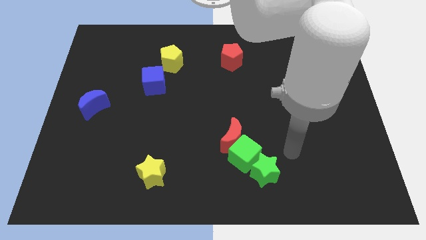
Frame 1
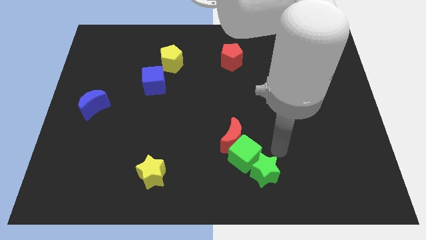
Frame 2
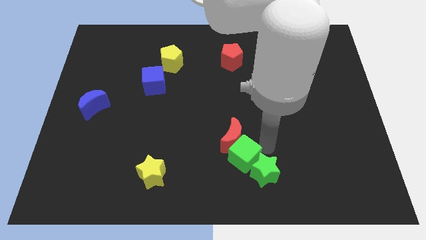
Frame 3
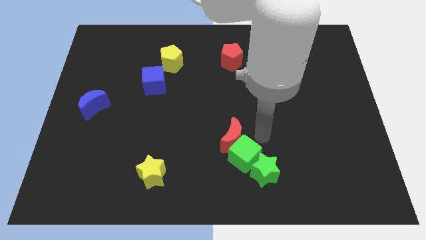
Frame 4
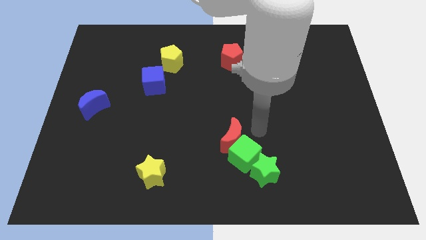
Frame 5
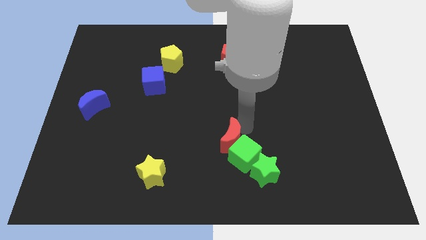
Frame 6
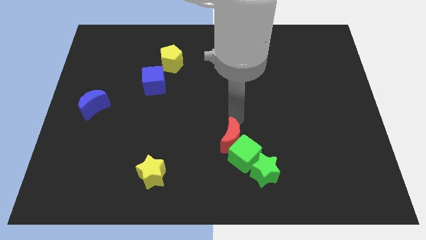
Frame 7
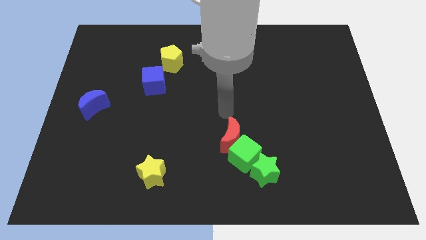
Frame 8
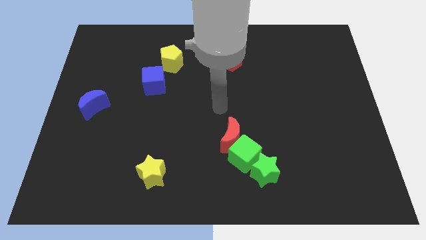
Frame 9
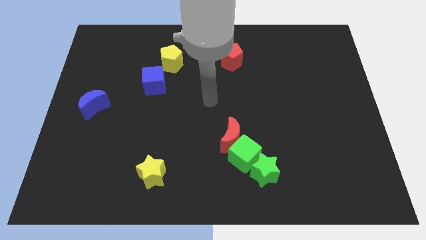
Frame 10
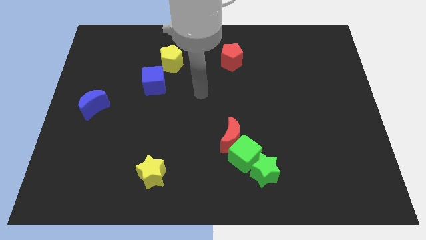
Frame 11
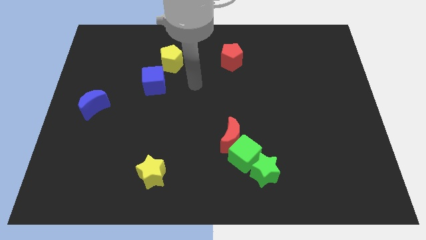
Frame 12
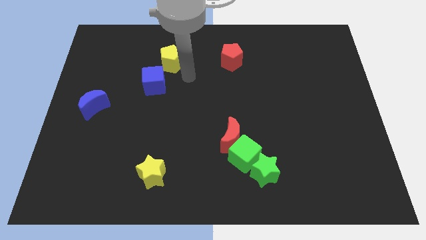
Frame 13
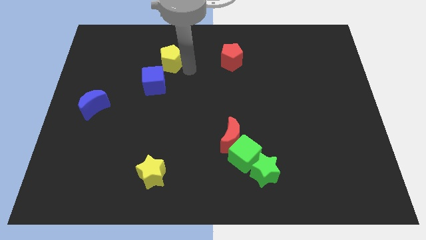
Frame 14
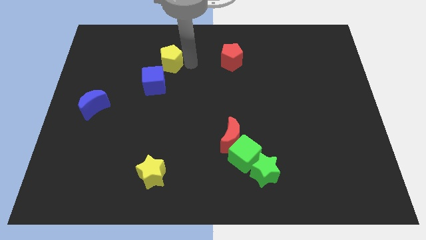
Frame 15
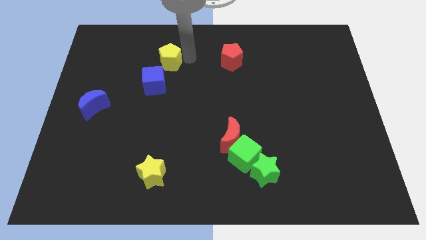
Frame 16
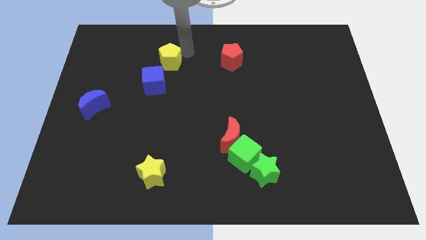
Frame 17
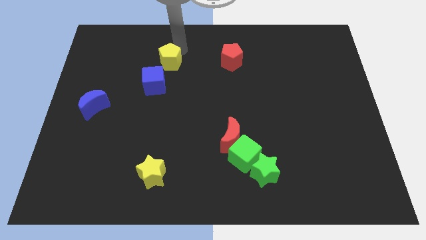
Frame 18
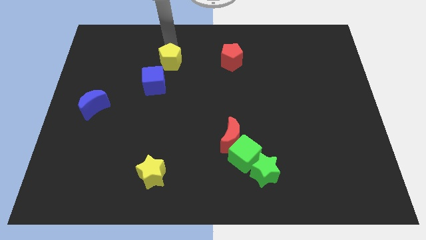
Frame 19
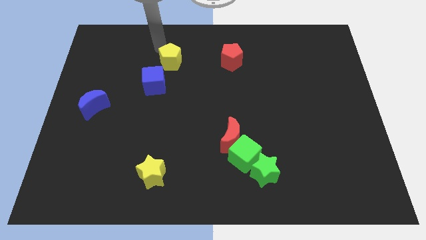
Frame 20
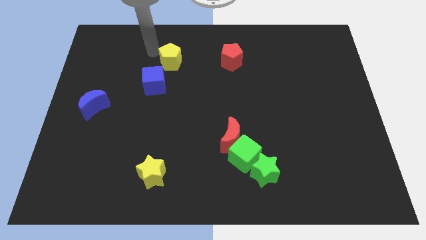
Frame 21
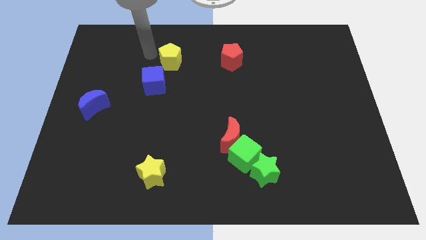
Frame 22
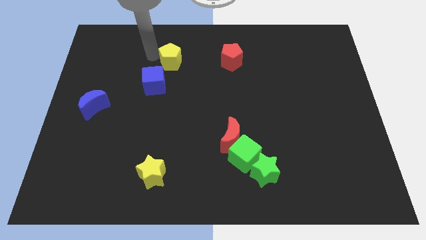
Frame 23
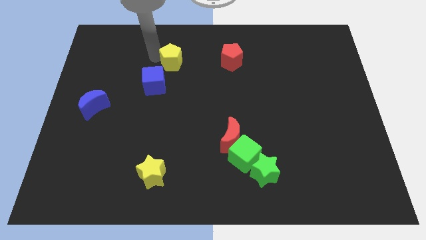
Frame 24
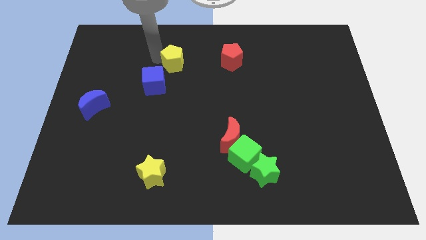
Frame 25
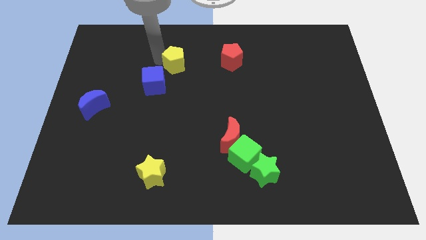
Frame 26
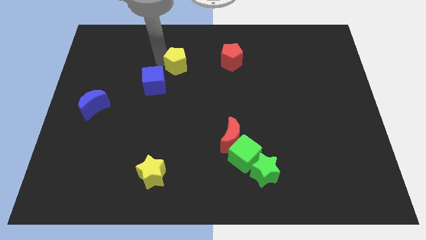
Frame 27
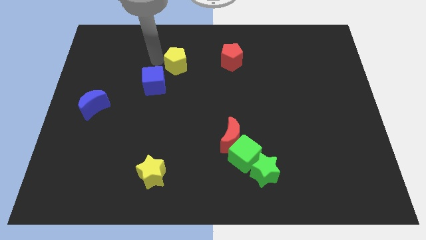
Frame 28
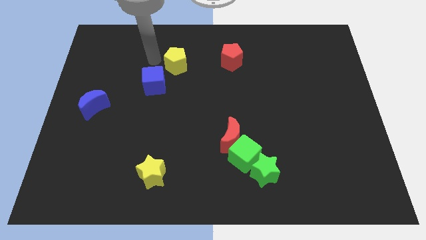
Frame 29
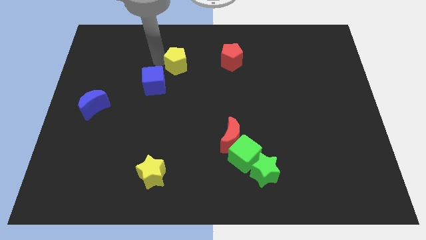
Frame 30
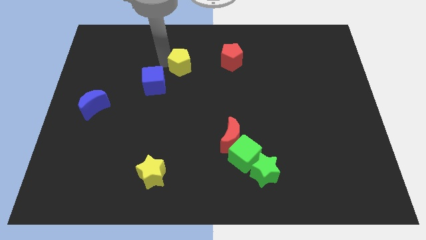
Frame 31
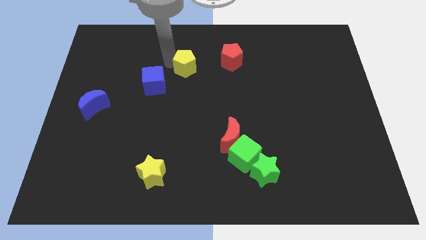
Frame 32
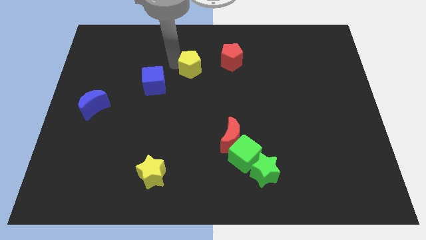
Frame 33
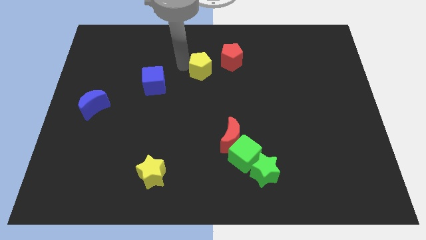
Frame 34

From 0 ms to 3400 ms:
slightly push the yellow pentagon right

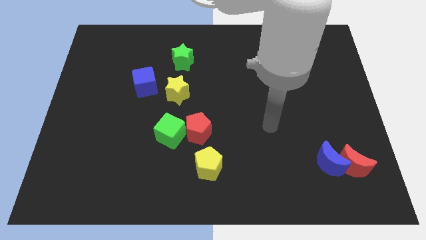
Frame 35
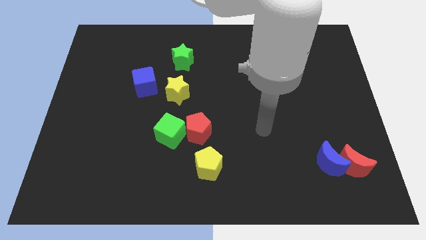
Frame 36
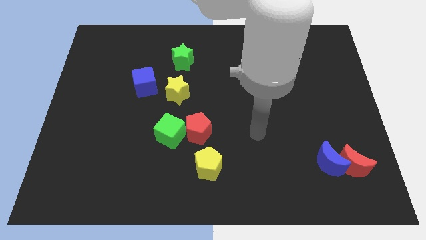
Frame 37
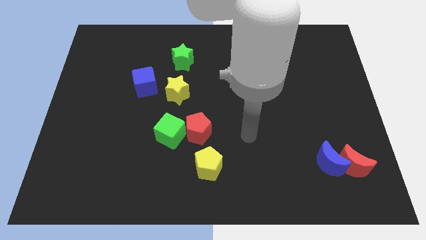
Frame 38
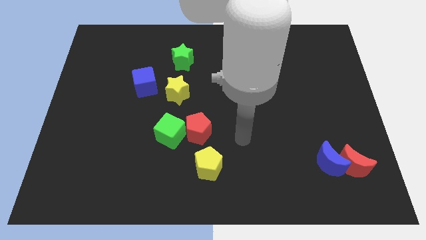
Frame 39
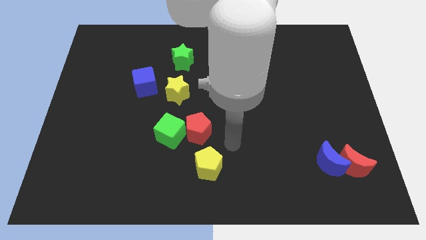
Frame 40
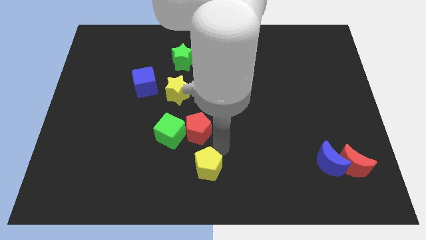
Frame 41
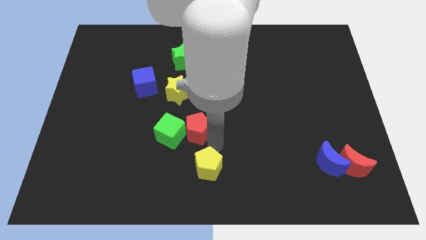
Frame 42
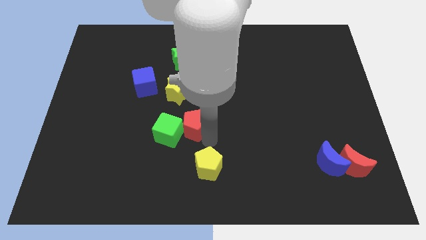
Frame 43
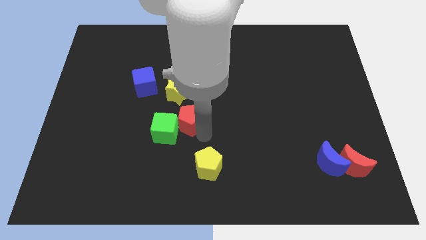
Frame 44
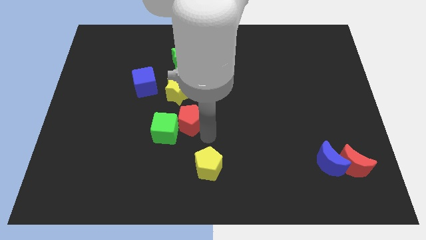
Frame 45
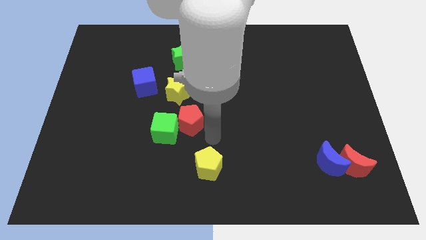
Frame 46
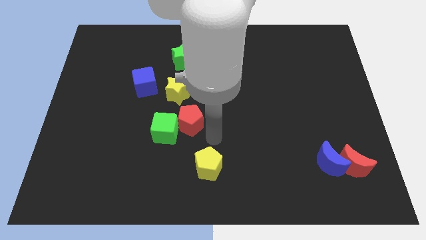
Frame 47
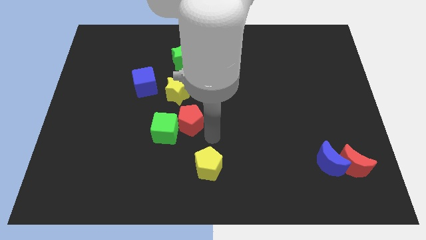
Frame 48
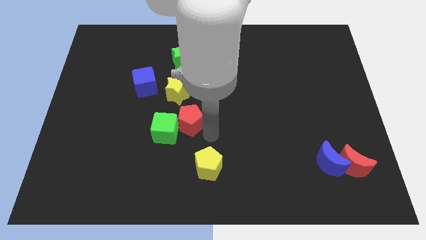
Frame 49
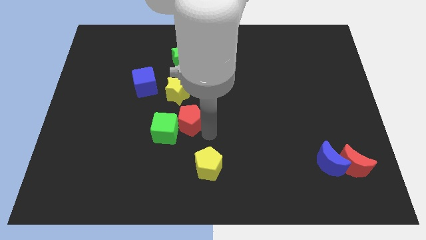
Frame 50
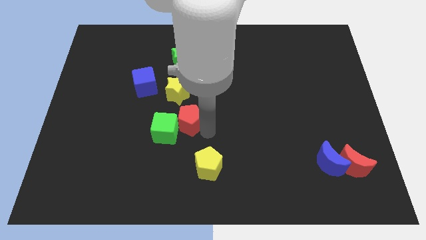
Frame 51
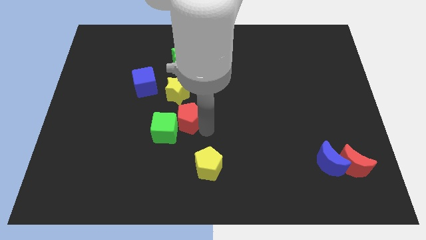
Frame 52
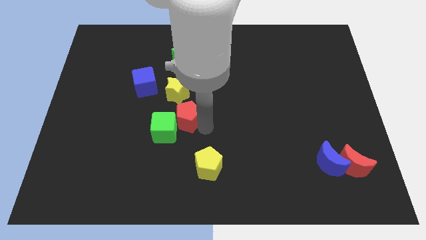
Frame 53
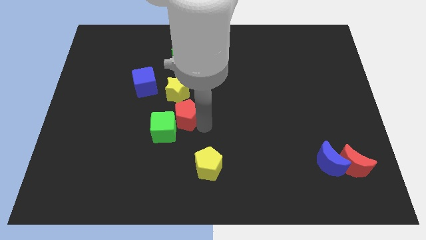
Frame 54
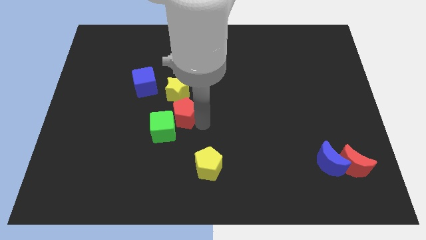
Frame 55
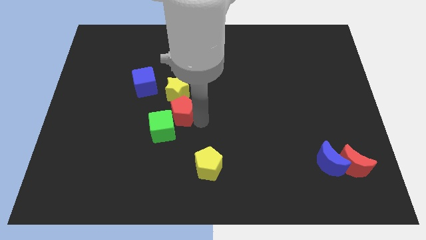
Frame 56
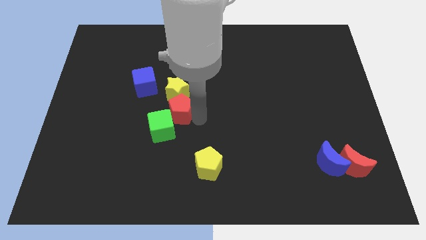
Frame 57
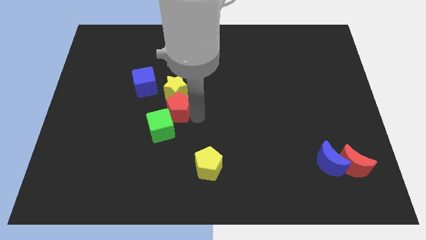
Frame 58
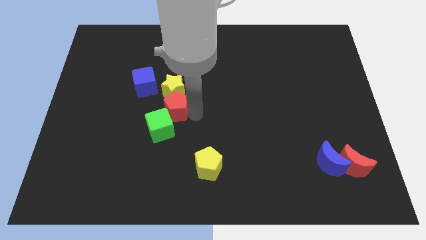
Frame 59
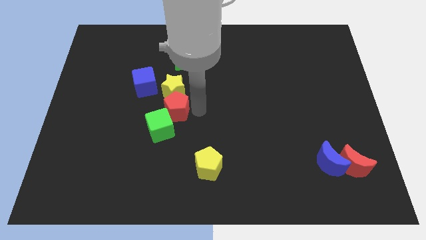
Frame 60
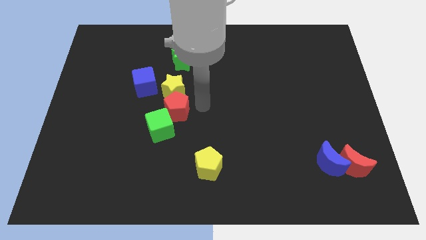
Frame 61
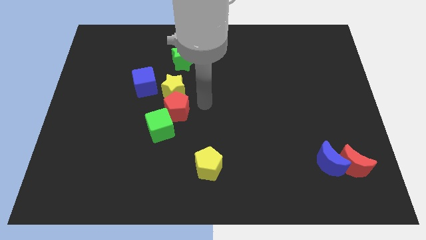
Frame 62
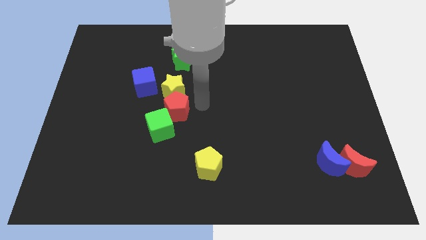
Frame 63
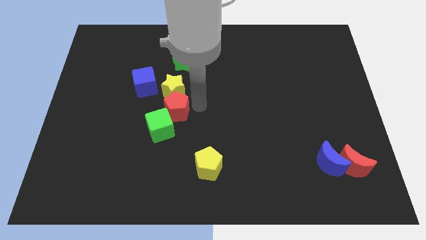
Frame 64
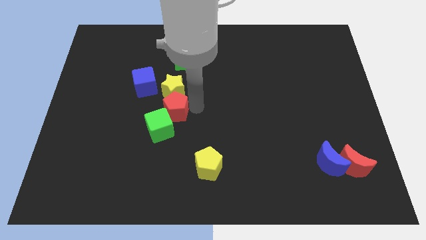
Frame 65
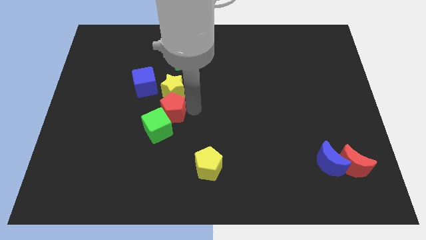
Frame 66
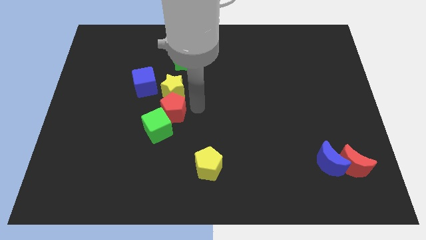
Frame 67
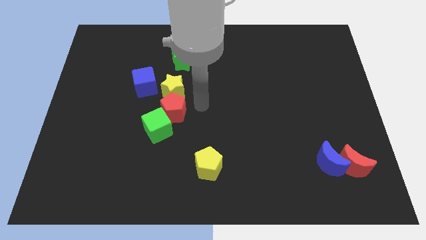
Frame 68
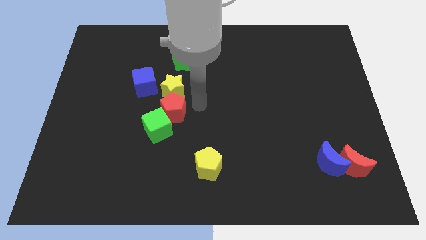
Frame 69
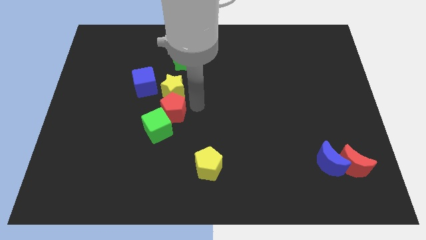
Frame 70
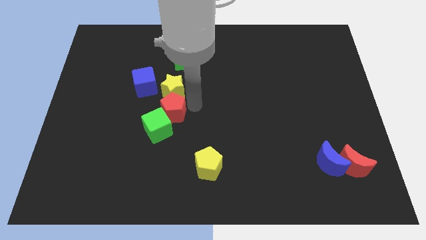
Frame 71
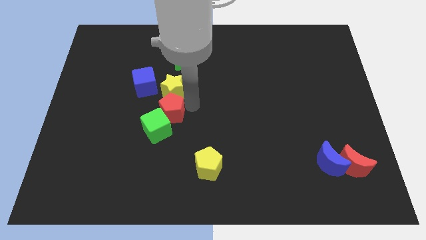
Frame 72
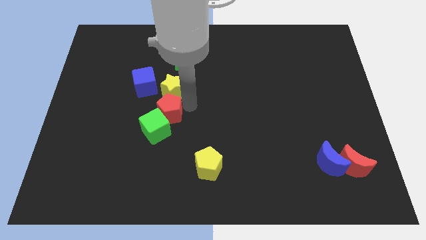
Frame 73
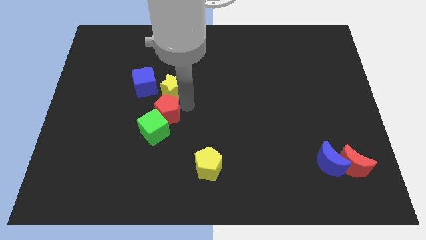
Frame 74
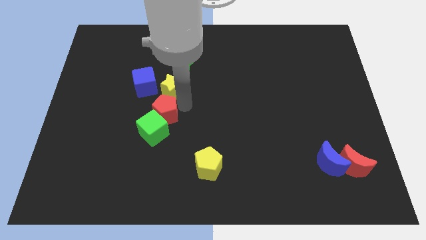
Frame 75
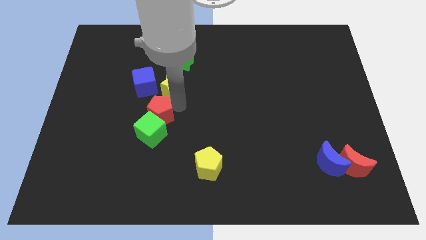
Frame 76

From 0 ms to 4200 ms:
slightly push the red pentagon to the left

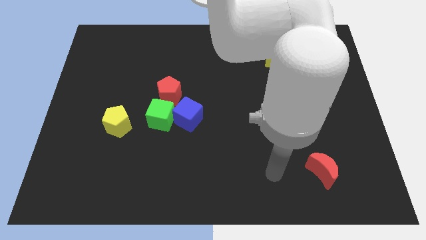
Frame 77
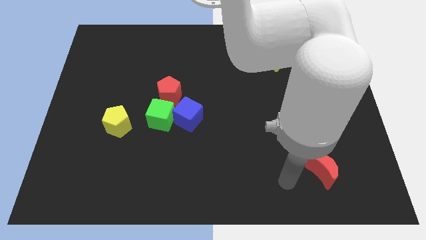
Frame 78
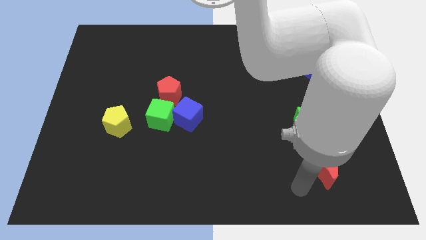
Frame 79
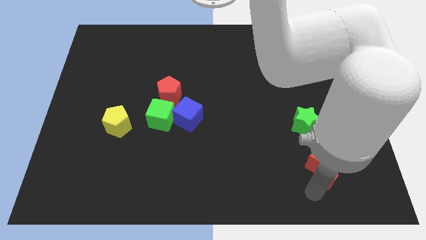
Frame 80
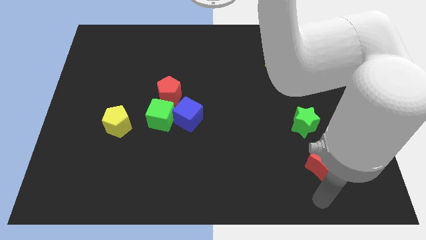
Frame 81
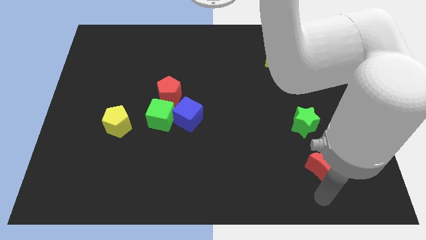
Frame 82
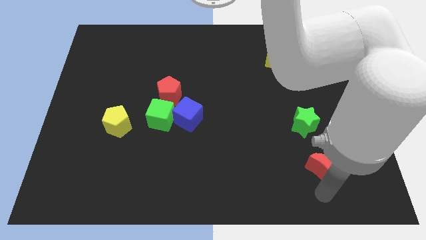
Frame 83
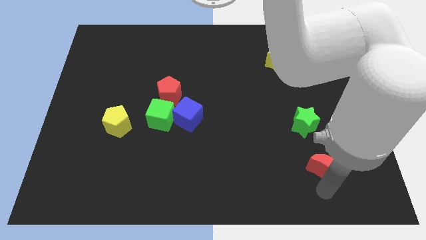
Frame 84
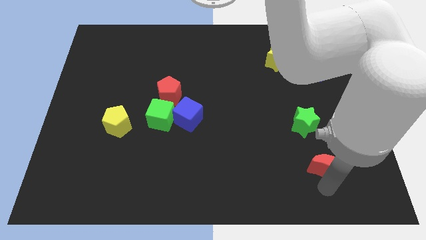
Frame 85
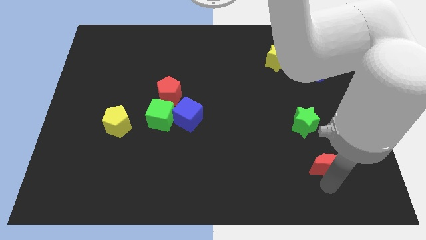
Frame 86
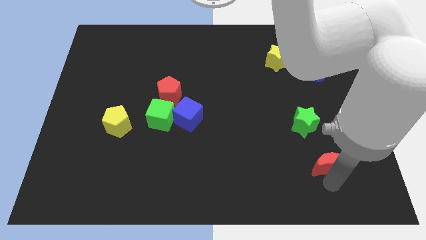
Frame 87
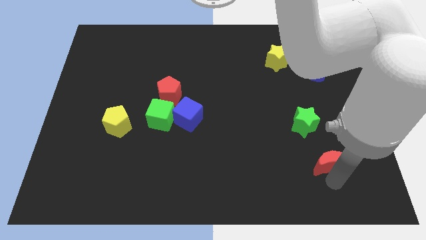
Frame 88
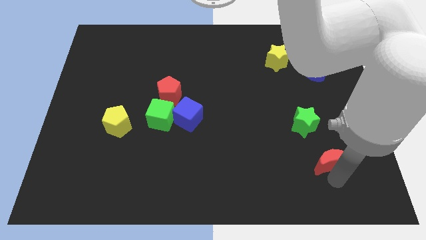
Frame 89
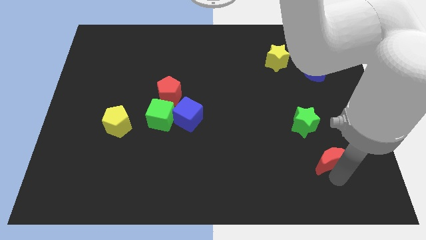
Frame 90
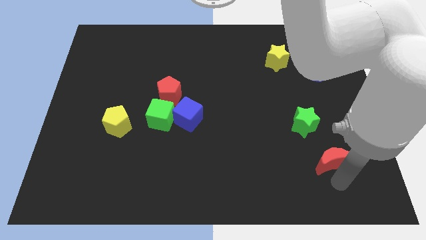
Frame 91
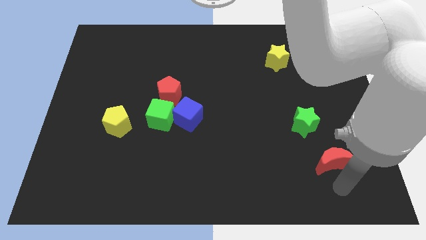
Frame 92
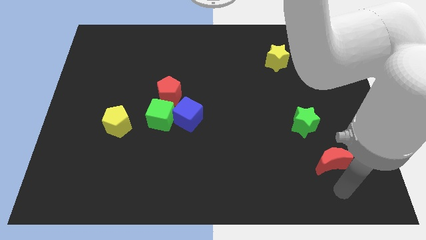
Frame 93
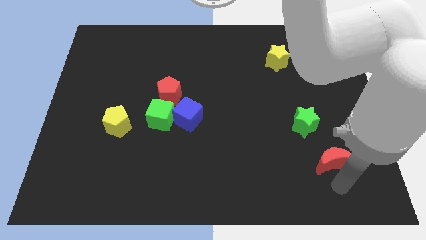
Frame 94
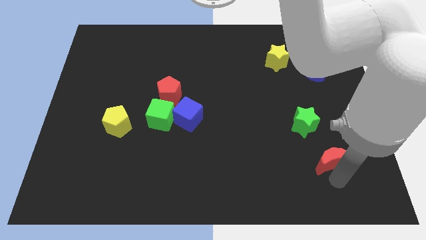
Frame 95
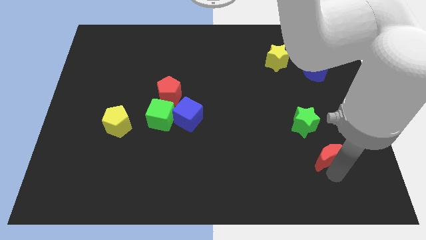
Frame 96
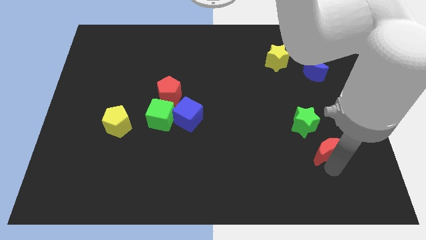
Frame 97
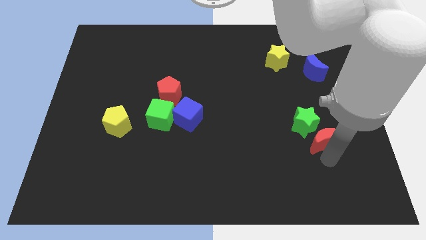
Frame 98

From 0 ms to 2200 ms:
slightly push the red moon upwards
